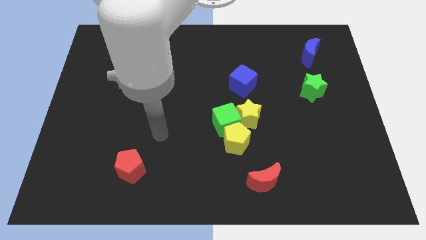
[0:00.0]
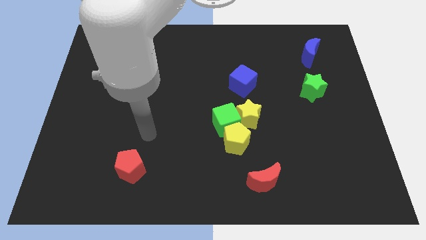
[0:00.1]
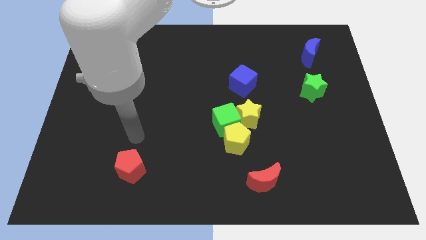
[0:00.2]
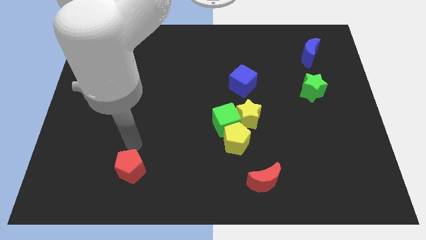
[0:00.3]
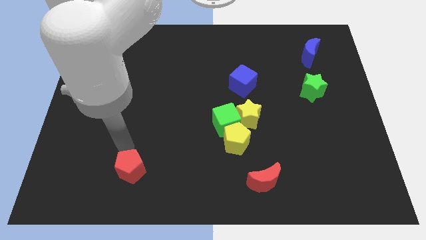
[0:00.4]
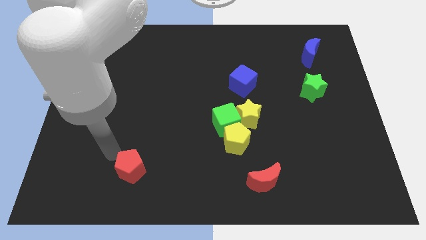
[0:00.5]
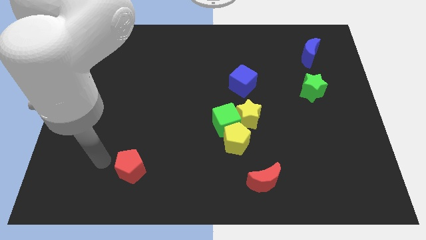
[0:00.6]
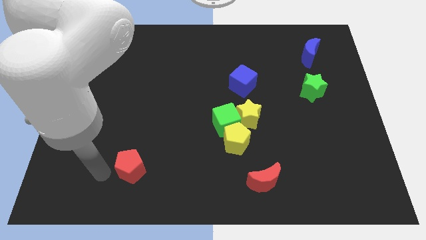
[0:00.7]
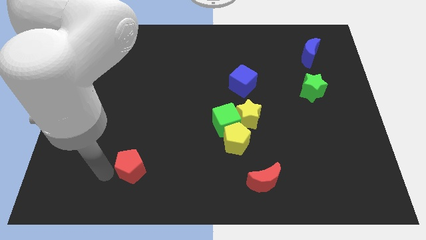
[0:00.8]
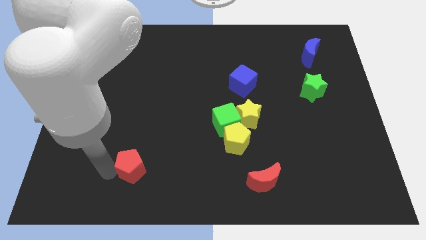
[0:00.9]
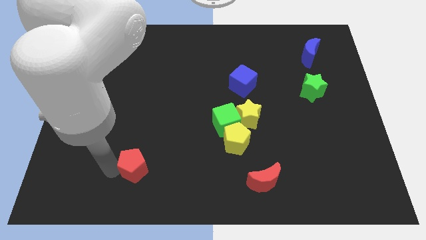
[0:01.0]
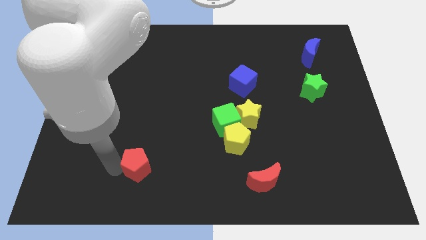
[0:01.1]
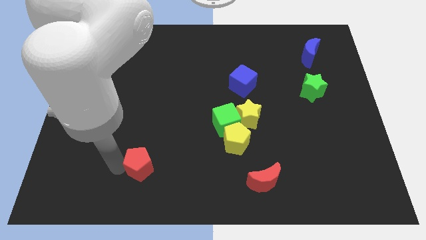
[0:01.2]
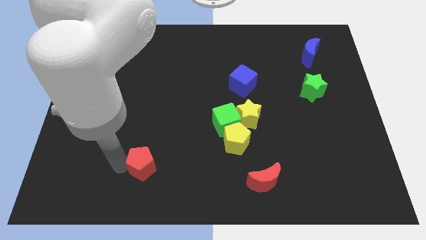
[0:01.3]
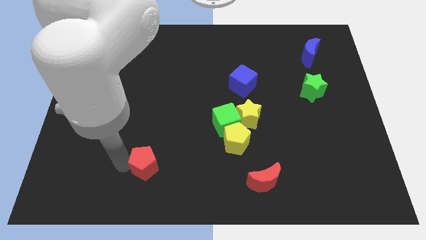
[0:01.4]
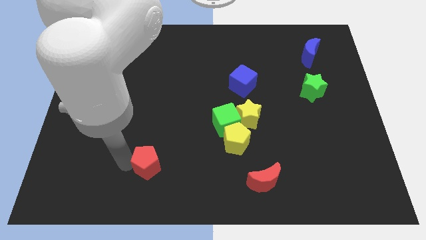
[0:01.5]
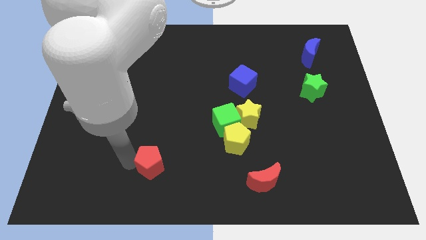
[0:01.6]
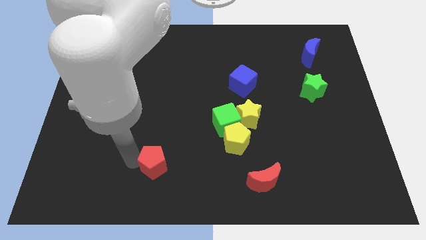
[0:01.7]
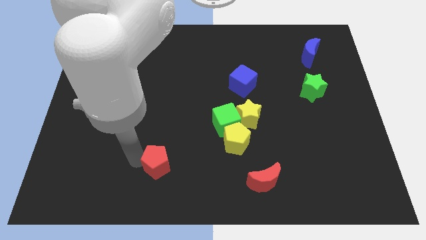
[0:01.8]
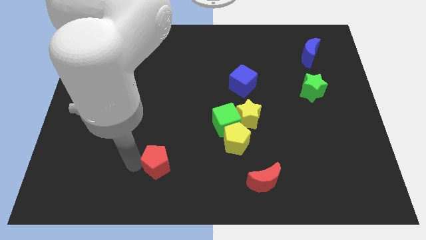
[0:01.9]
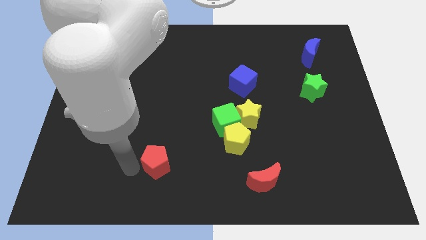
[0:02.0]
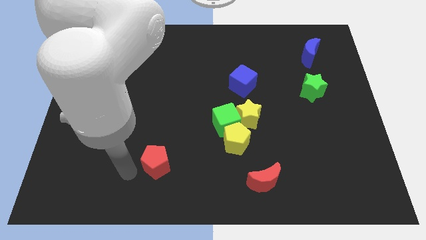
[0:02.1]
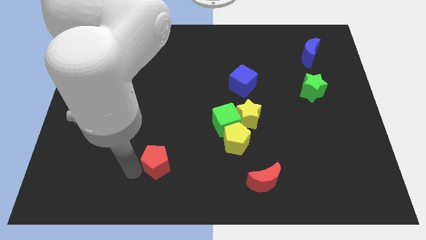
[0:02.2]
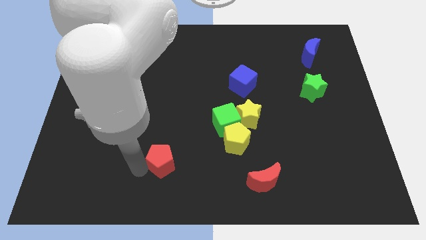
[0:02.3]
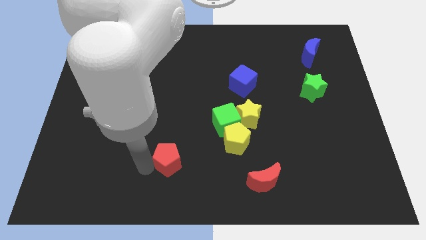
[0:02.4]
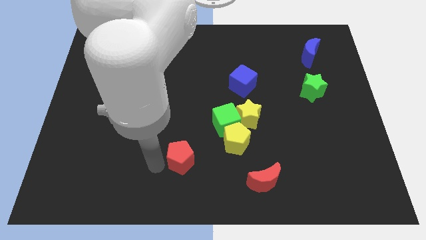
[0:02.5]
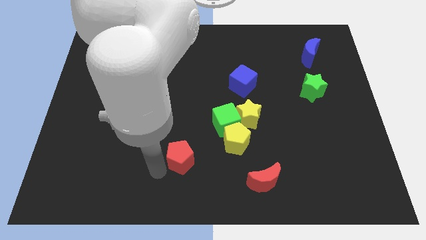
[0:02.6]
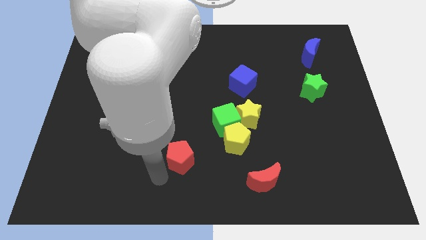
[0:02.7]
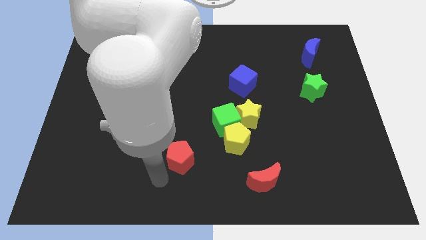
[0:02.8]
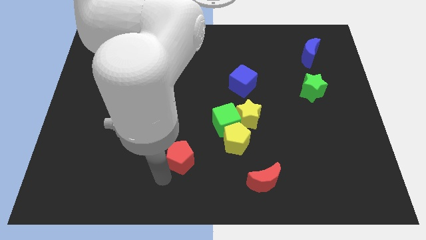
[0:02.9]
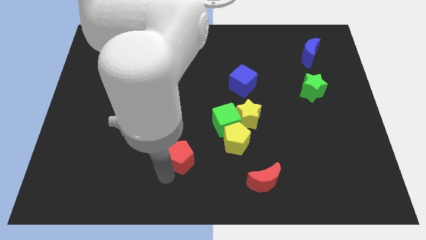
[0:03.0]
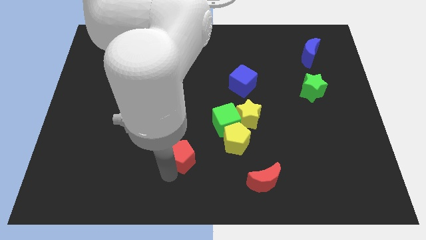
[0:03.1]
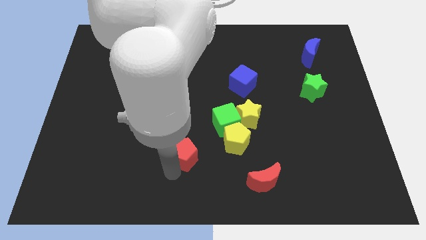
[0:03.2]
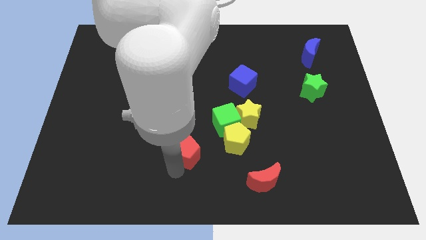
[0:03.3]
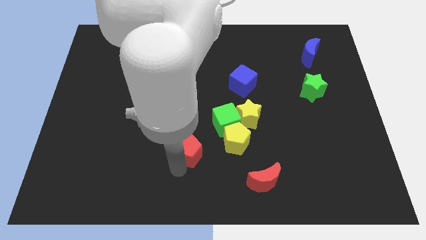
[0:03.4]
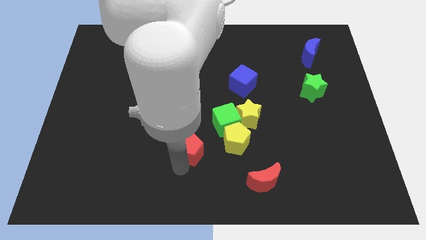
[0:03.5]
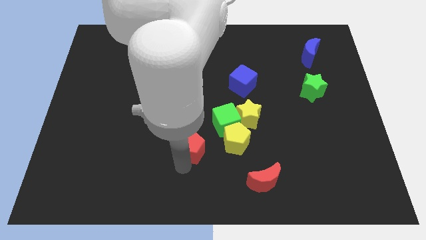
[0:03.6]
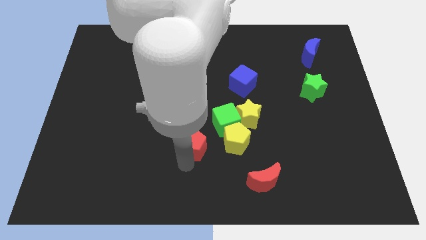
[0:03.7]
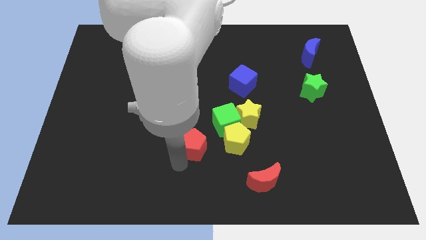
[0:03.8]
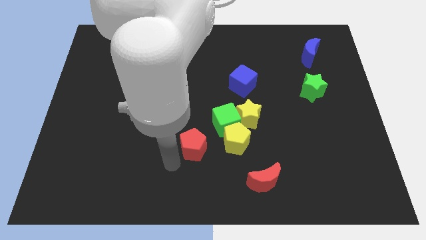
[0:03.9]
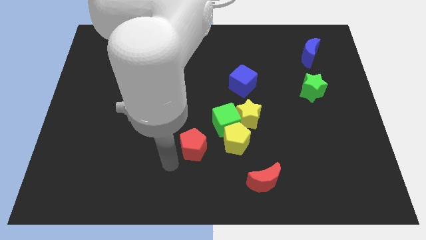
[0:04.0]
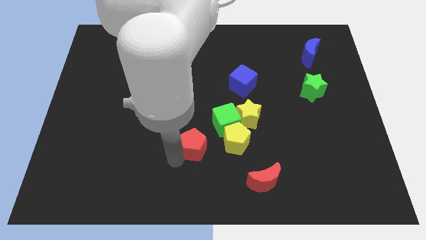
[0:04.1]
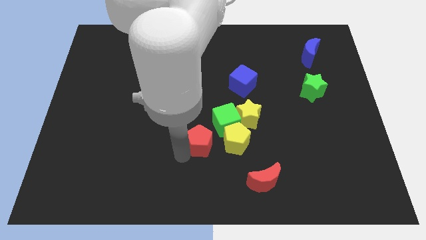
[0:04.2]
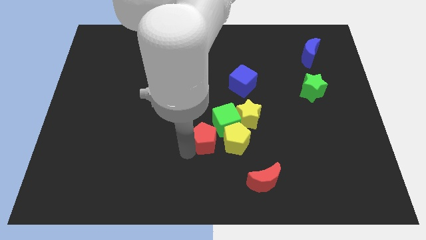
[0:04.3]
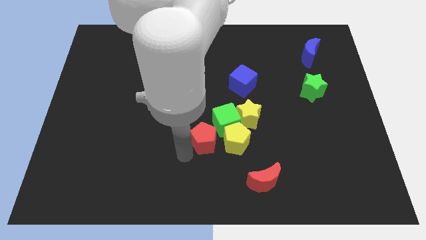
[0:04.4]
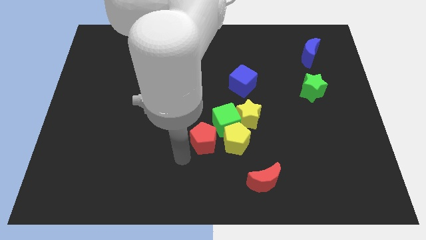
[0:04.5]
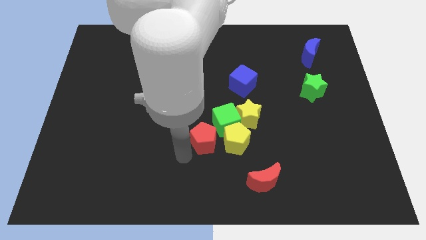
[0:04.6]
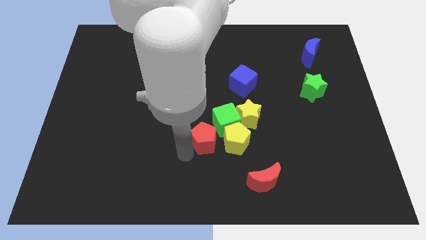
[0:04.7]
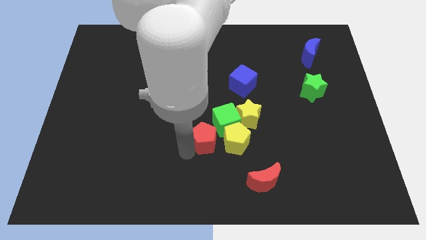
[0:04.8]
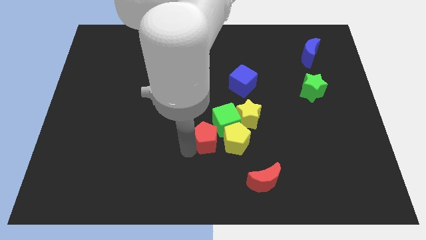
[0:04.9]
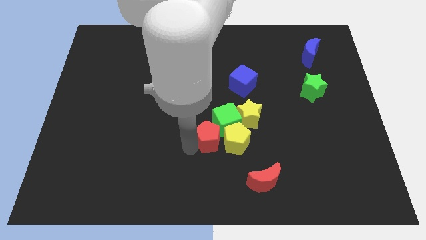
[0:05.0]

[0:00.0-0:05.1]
push the red pentagon towards the green cube

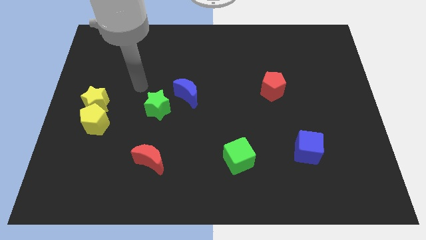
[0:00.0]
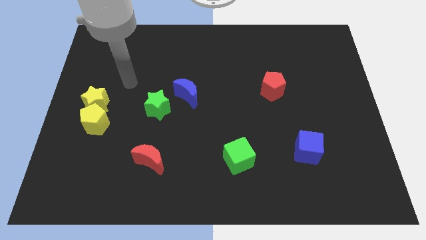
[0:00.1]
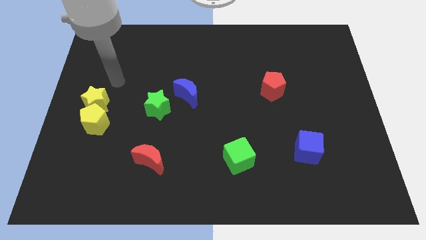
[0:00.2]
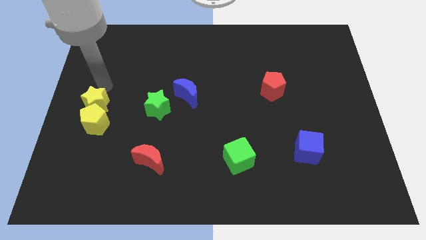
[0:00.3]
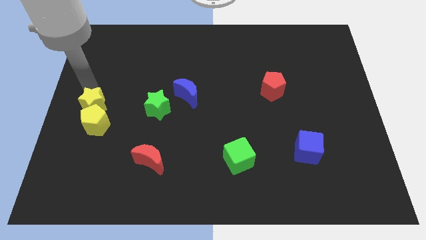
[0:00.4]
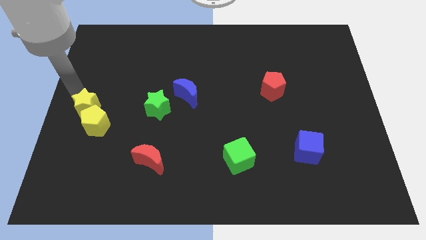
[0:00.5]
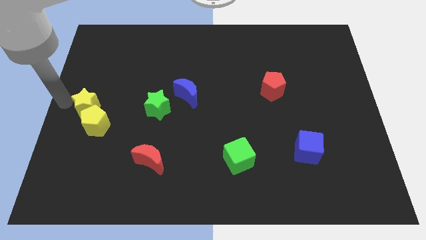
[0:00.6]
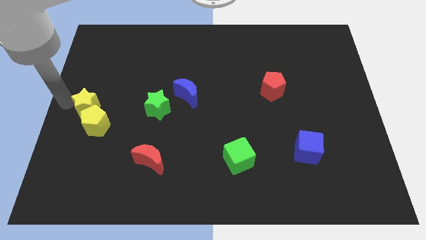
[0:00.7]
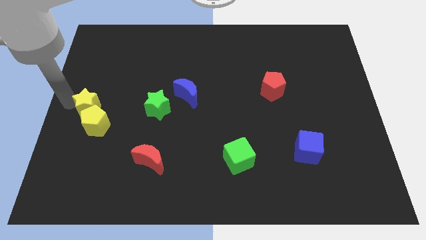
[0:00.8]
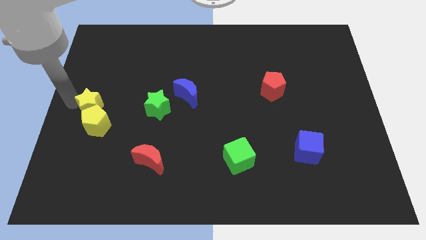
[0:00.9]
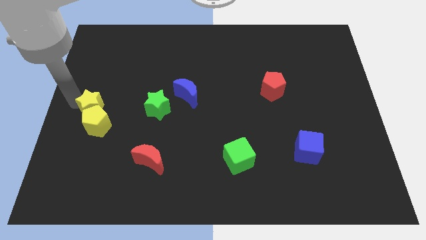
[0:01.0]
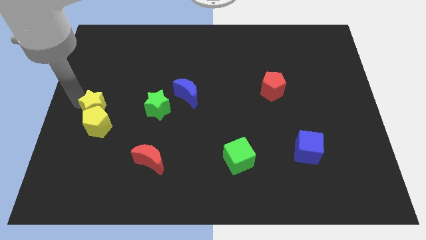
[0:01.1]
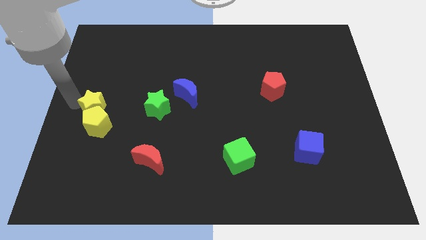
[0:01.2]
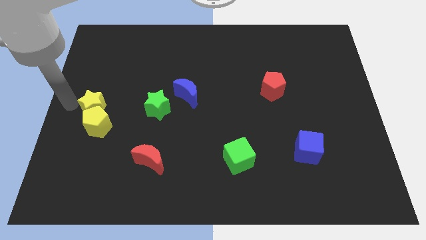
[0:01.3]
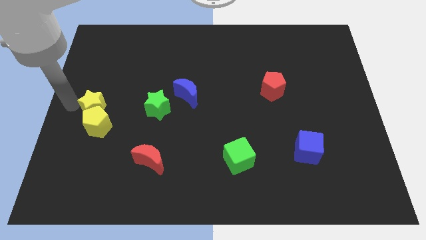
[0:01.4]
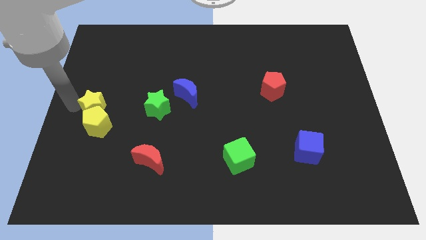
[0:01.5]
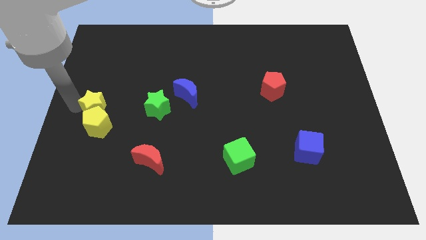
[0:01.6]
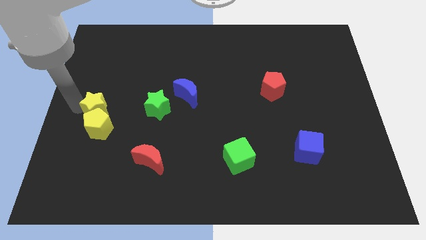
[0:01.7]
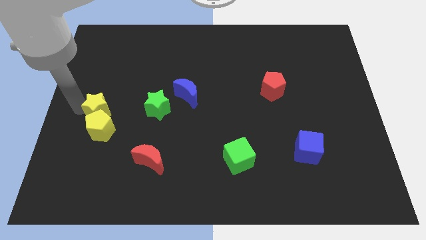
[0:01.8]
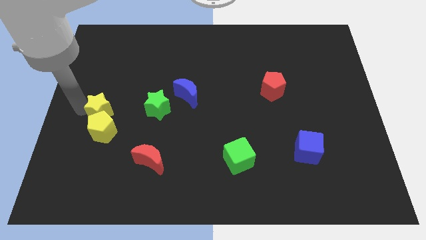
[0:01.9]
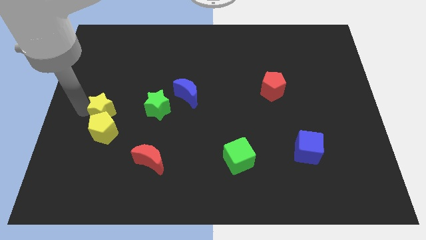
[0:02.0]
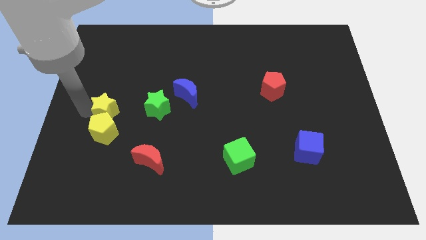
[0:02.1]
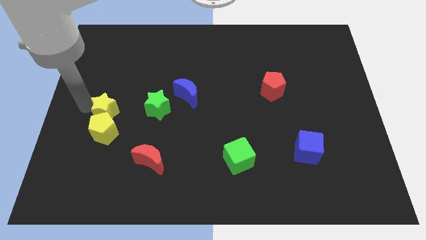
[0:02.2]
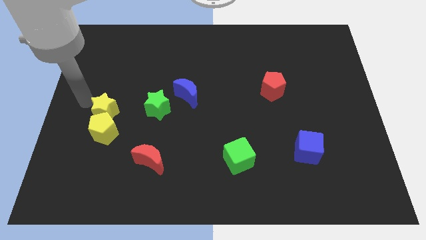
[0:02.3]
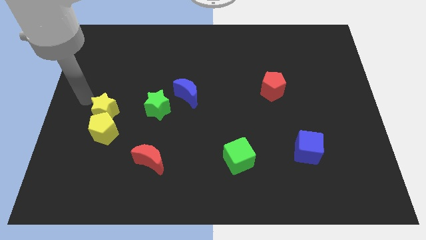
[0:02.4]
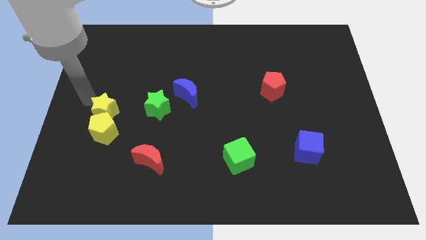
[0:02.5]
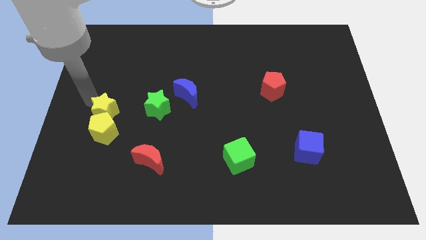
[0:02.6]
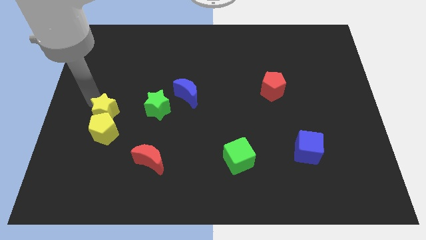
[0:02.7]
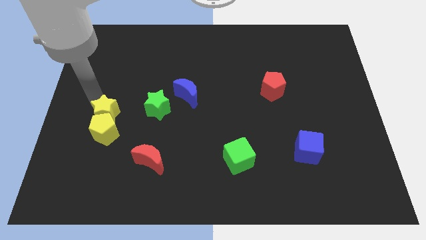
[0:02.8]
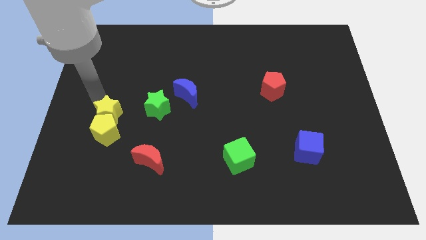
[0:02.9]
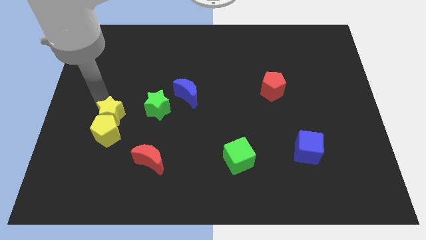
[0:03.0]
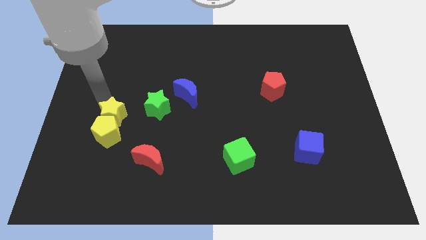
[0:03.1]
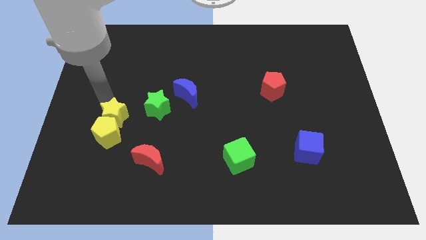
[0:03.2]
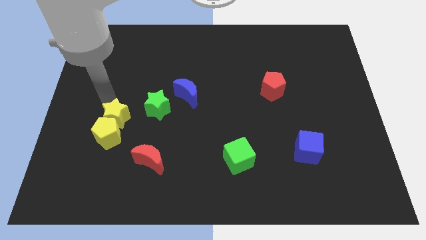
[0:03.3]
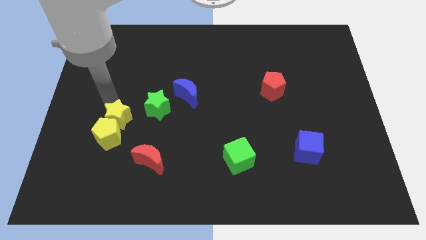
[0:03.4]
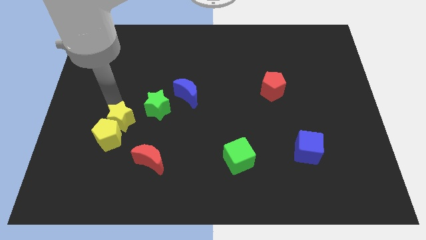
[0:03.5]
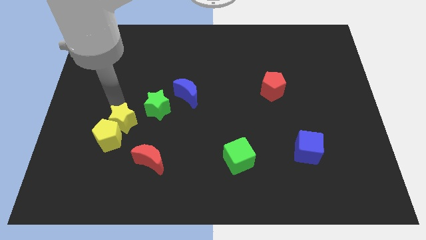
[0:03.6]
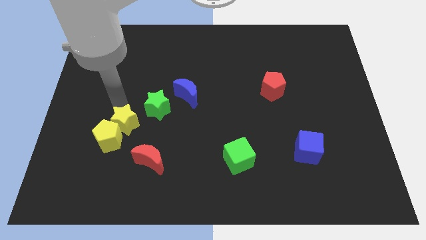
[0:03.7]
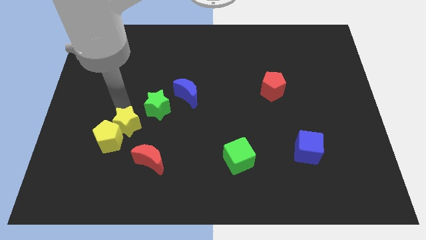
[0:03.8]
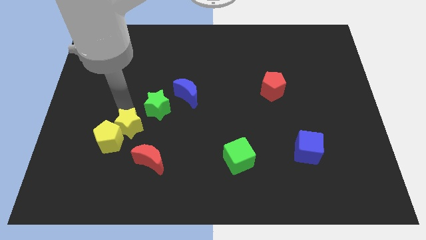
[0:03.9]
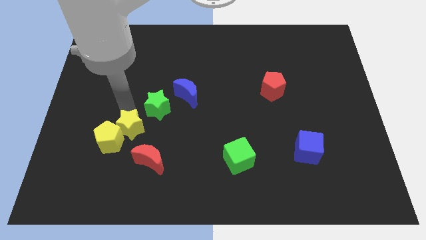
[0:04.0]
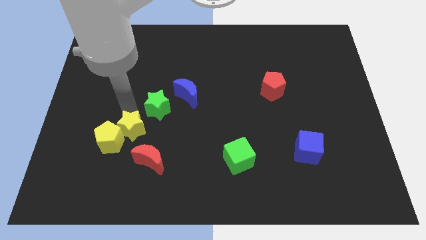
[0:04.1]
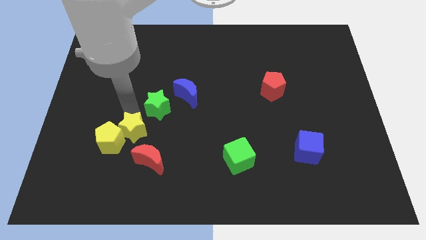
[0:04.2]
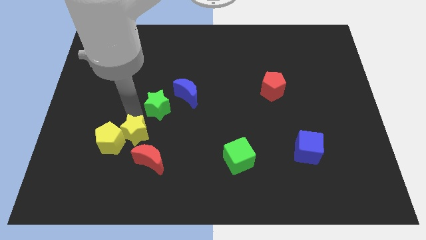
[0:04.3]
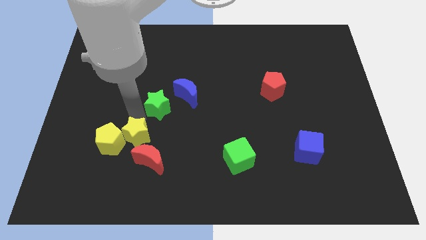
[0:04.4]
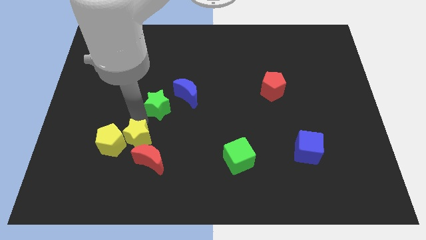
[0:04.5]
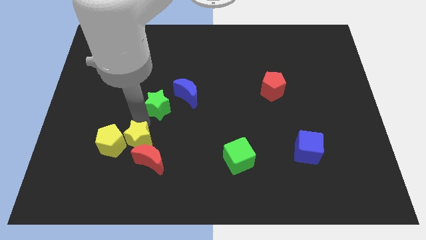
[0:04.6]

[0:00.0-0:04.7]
put the yellow star towards the red moon
